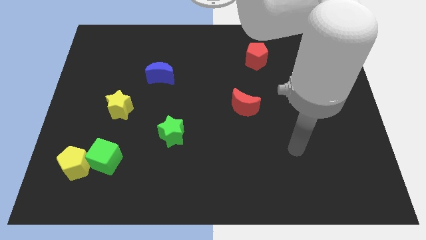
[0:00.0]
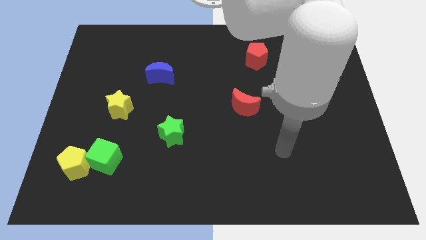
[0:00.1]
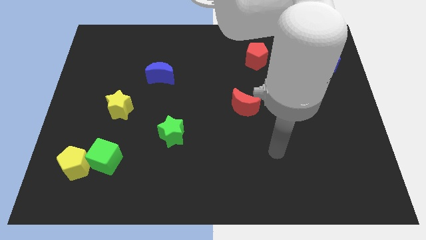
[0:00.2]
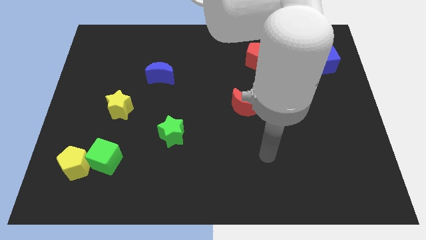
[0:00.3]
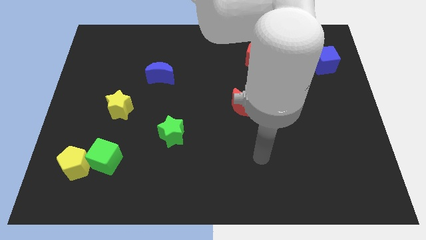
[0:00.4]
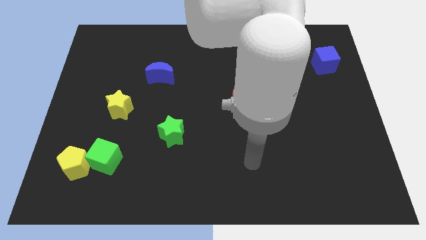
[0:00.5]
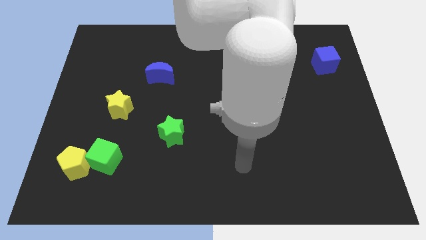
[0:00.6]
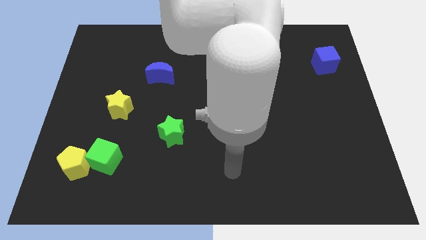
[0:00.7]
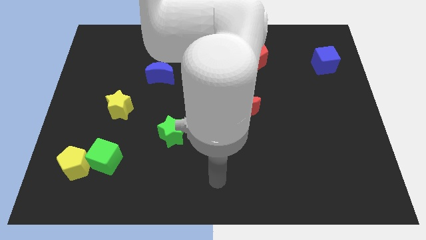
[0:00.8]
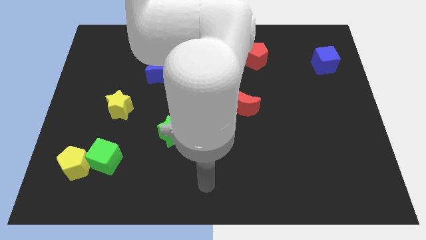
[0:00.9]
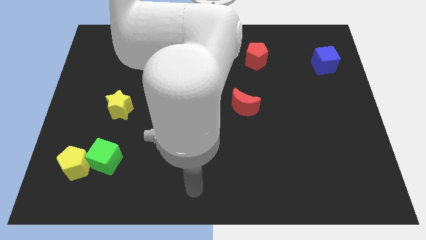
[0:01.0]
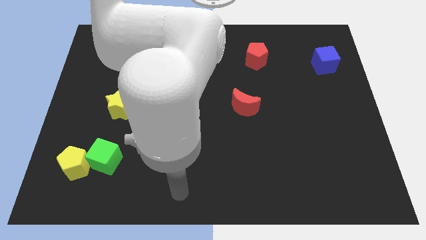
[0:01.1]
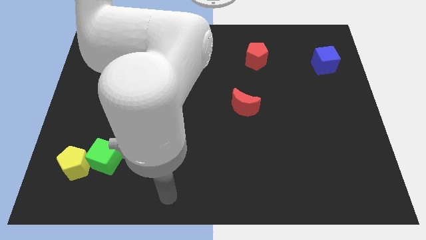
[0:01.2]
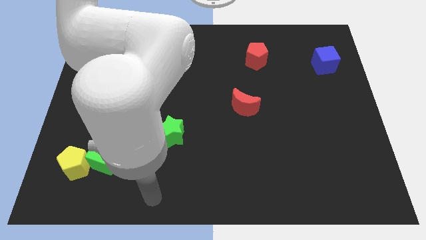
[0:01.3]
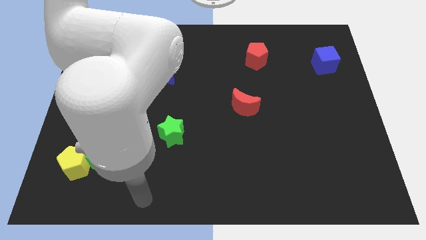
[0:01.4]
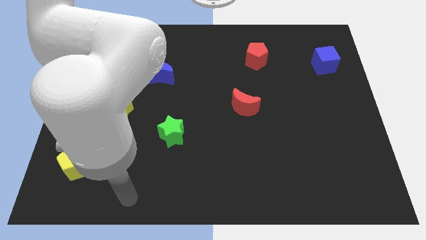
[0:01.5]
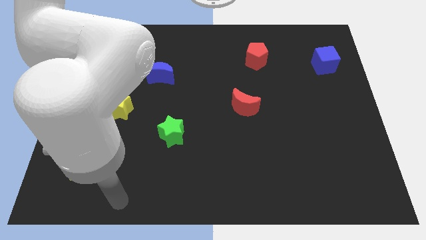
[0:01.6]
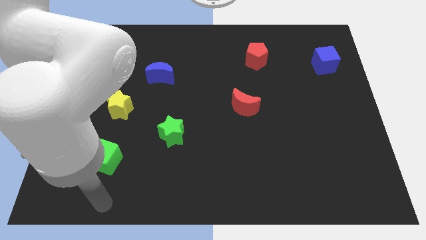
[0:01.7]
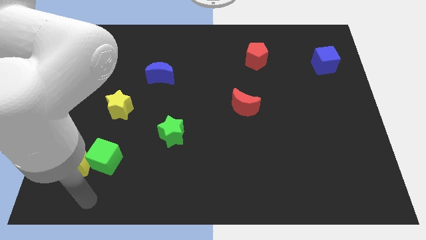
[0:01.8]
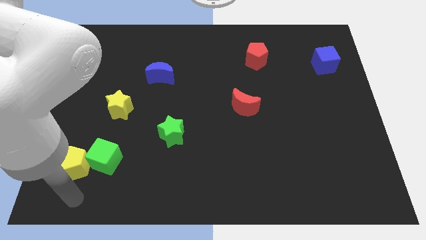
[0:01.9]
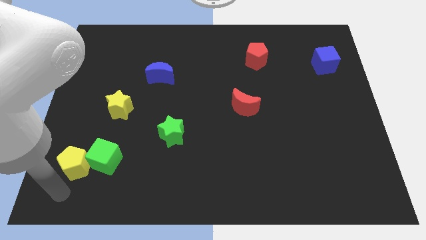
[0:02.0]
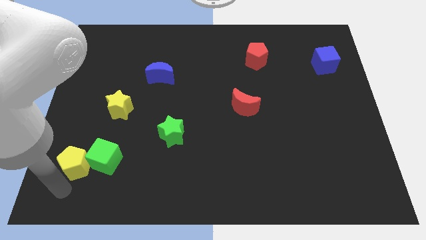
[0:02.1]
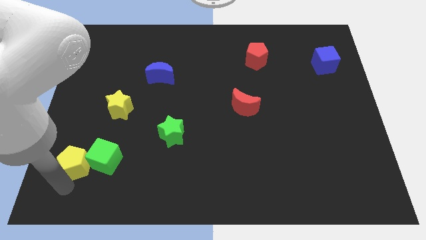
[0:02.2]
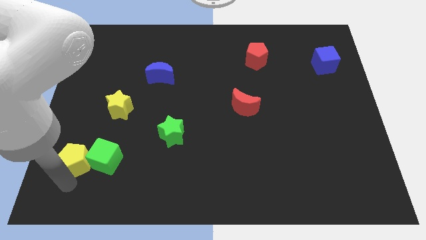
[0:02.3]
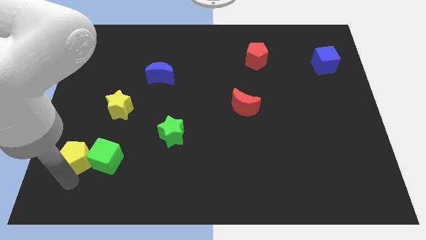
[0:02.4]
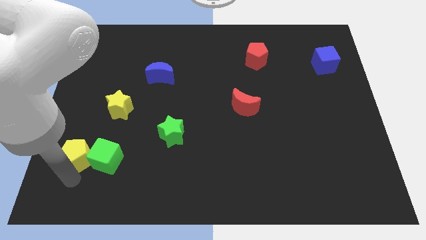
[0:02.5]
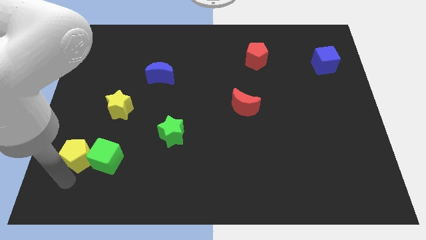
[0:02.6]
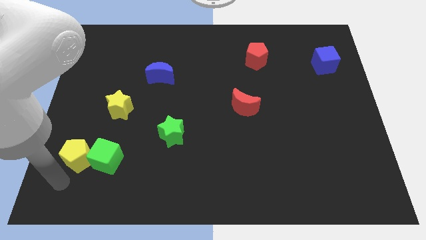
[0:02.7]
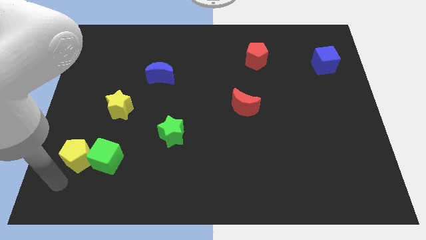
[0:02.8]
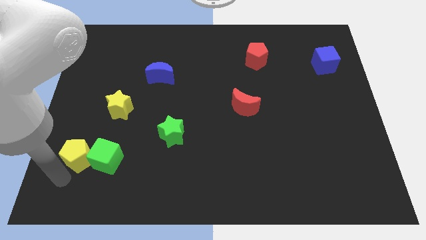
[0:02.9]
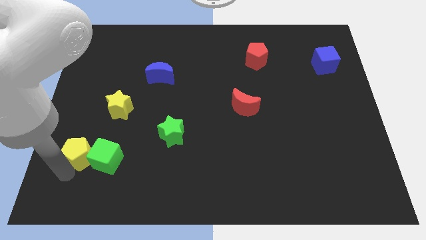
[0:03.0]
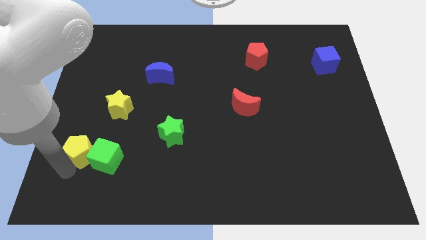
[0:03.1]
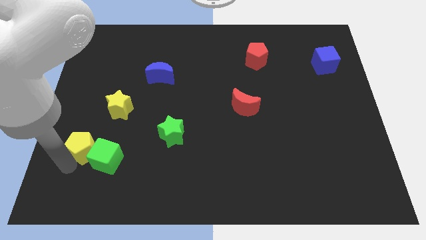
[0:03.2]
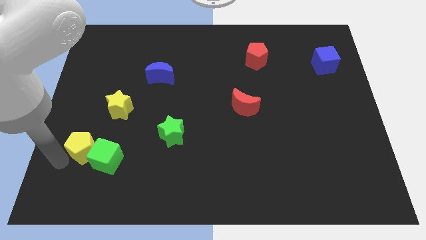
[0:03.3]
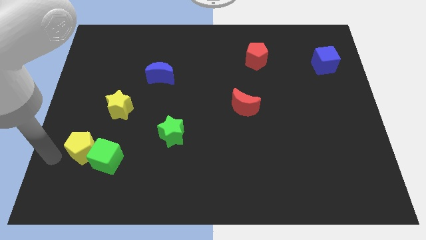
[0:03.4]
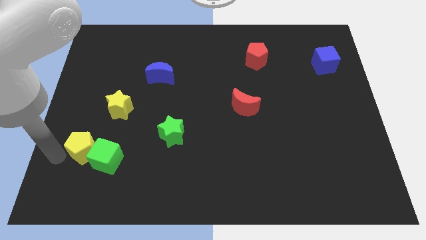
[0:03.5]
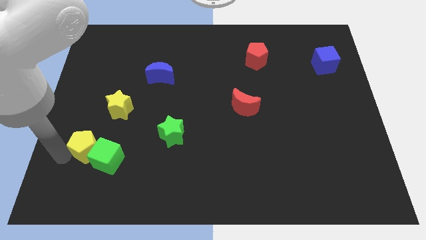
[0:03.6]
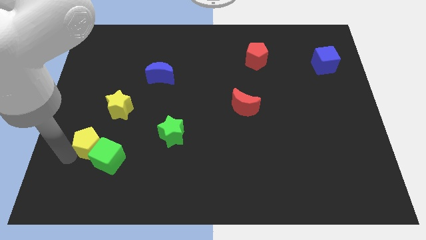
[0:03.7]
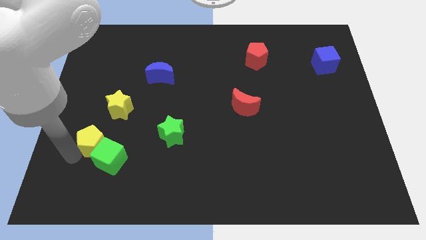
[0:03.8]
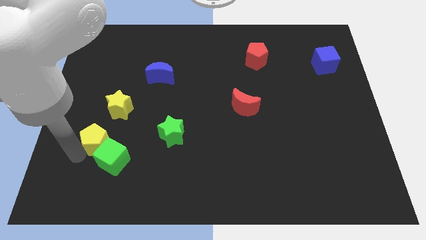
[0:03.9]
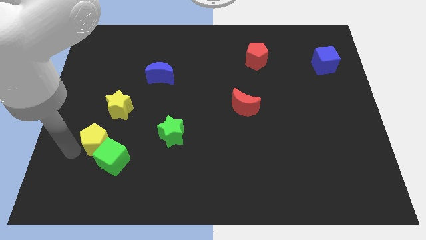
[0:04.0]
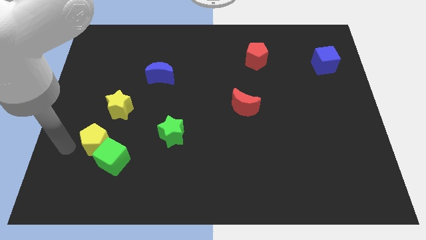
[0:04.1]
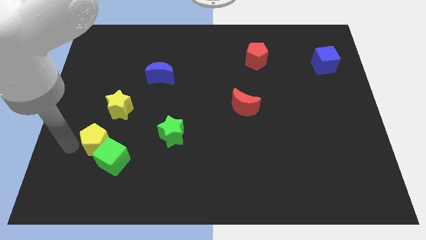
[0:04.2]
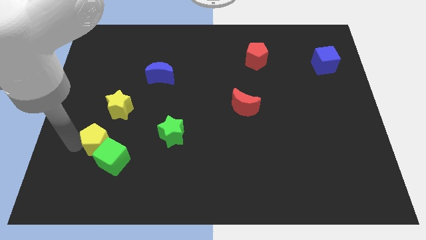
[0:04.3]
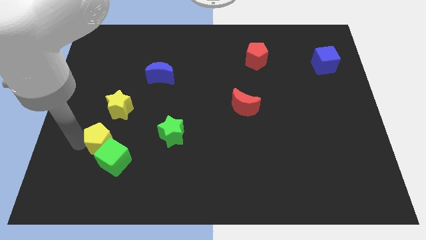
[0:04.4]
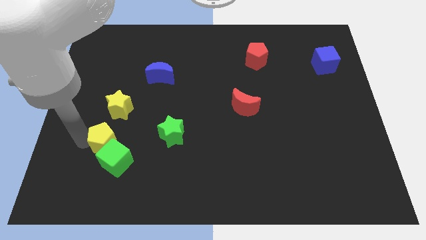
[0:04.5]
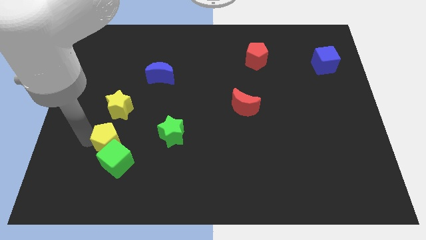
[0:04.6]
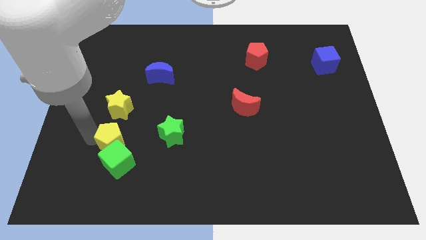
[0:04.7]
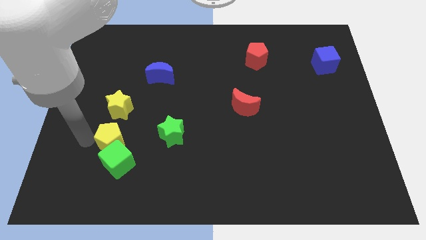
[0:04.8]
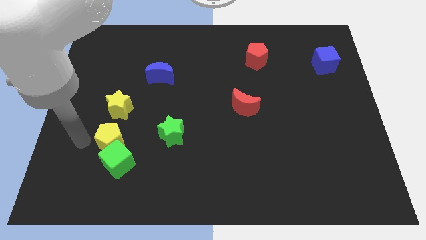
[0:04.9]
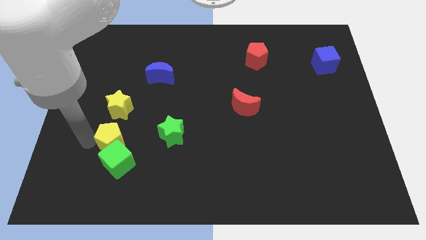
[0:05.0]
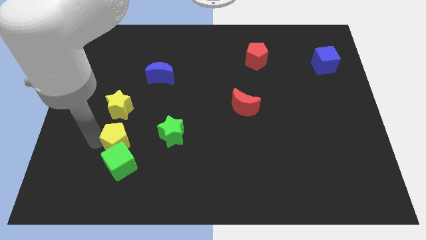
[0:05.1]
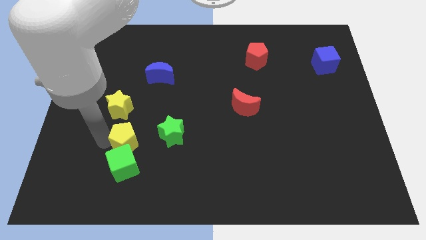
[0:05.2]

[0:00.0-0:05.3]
push the yellow pentagon diagonally up and to the right of the green cube

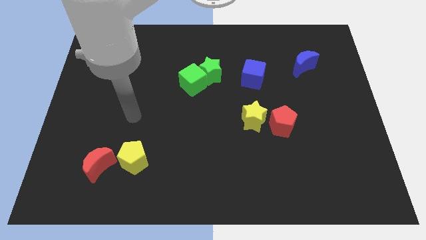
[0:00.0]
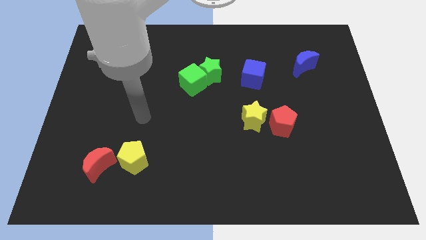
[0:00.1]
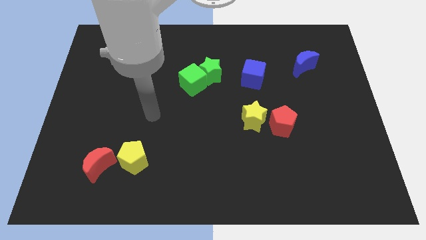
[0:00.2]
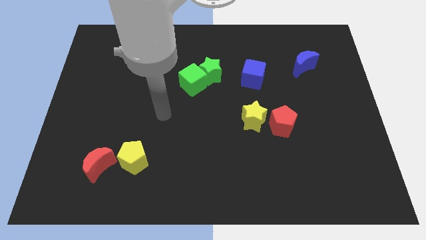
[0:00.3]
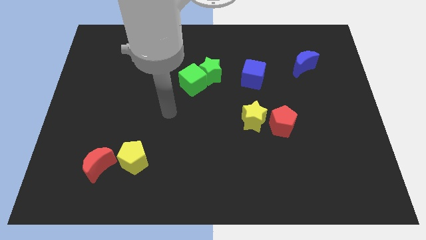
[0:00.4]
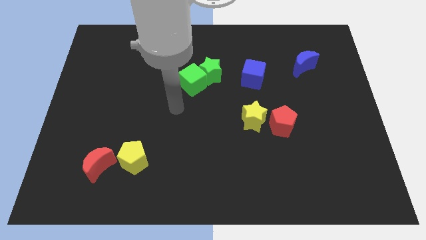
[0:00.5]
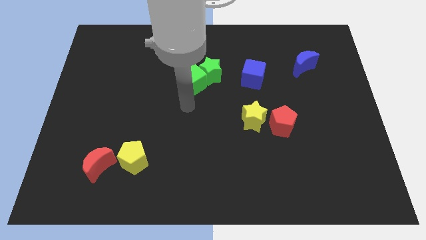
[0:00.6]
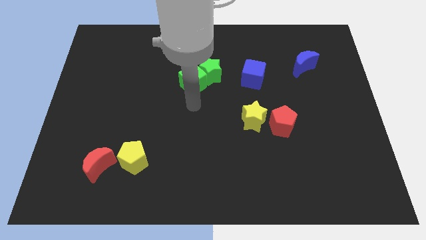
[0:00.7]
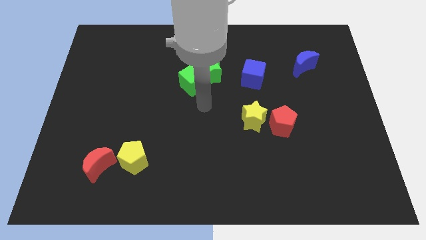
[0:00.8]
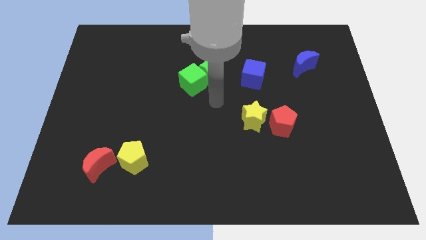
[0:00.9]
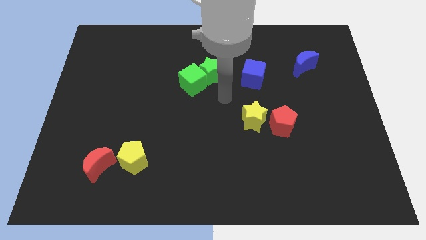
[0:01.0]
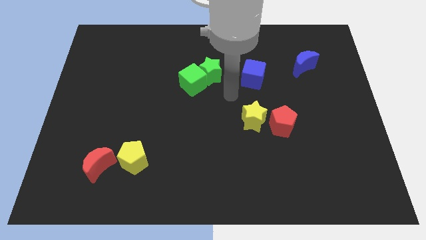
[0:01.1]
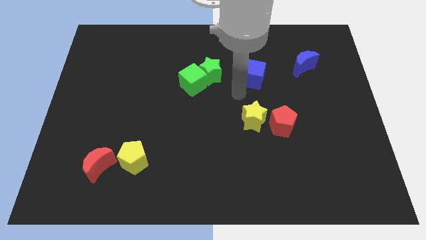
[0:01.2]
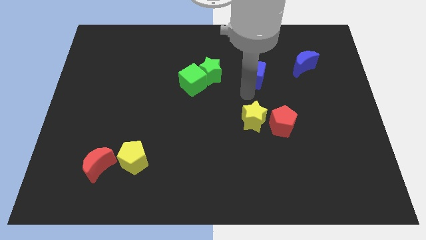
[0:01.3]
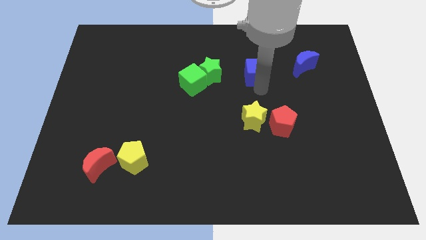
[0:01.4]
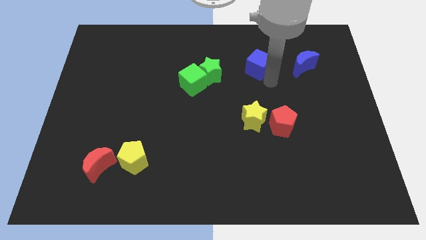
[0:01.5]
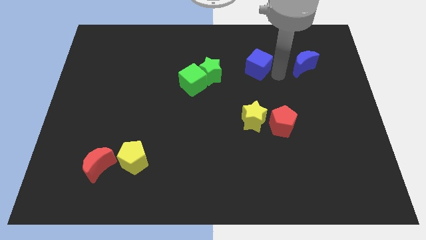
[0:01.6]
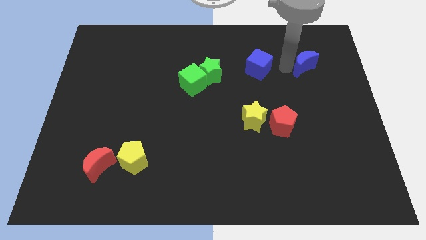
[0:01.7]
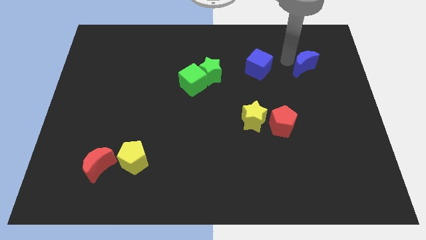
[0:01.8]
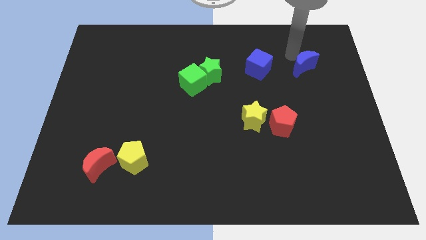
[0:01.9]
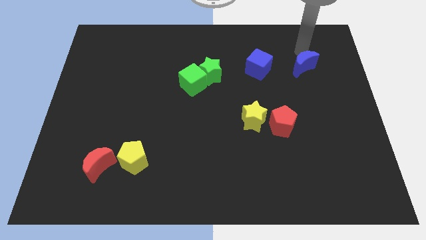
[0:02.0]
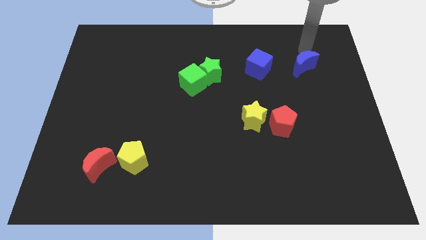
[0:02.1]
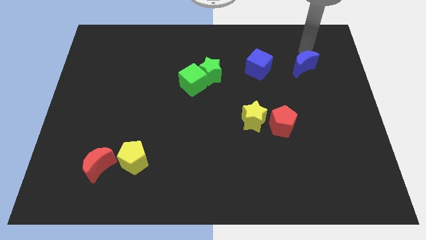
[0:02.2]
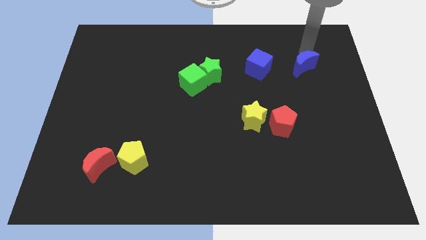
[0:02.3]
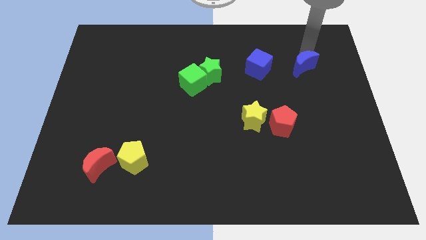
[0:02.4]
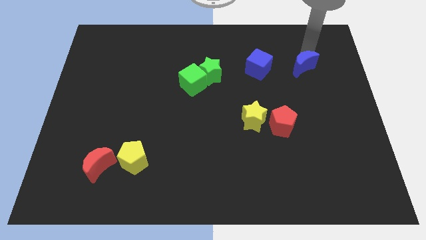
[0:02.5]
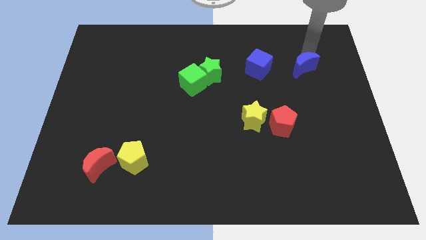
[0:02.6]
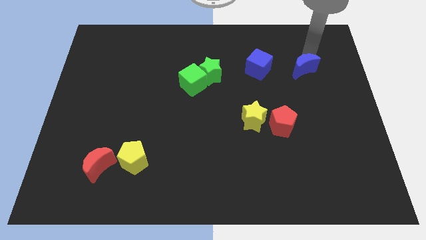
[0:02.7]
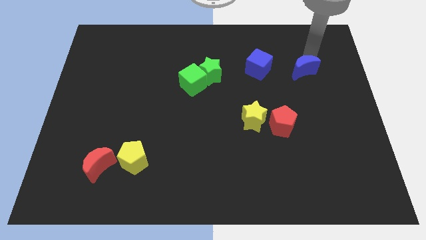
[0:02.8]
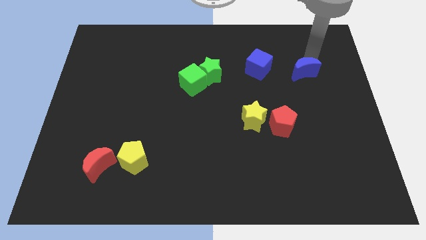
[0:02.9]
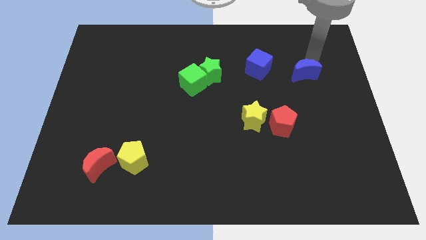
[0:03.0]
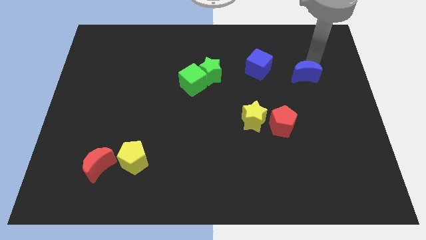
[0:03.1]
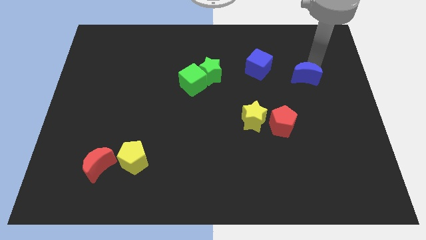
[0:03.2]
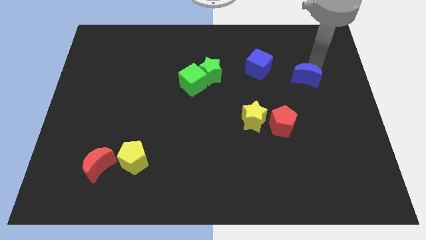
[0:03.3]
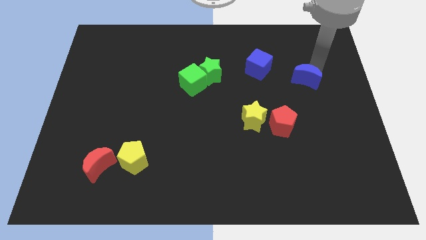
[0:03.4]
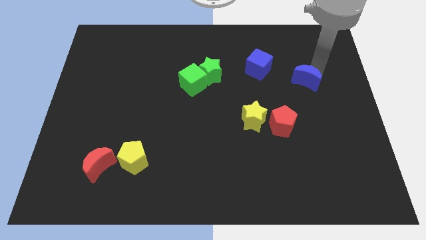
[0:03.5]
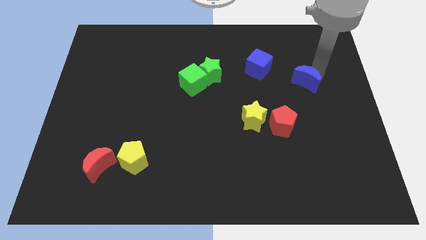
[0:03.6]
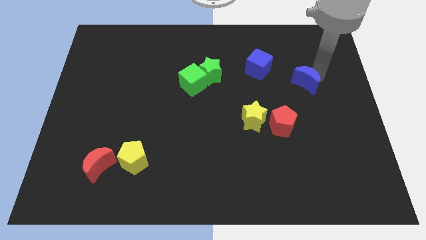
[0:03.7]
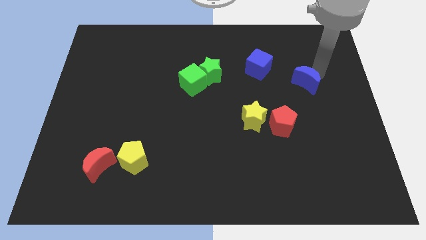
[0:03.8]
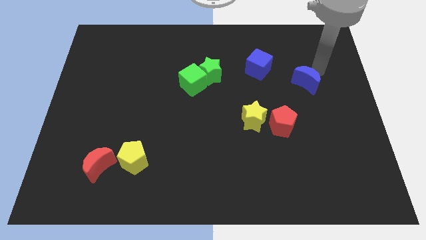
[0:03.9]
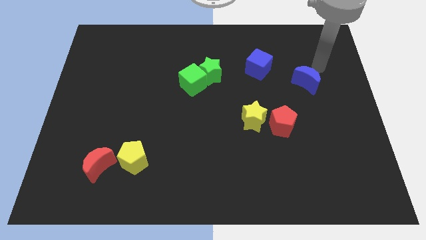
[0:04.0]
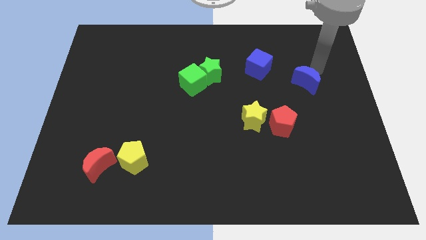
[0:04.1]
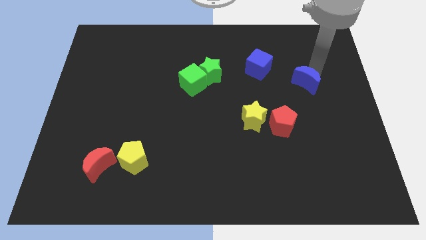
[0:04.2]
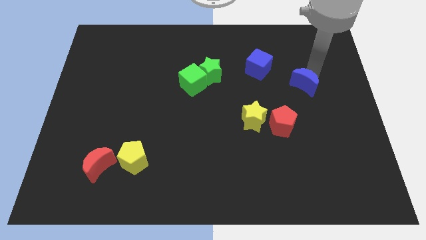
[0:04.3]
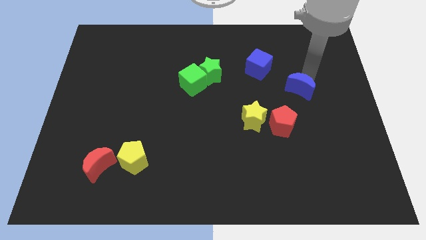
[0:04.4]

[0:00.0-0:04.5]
move the blue moon to the top right of the red pentagon
